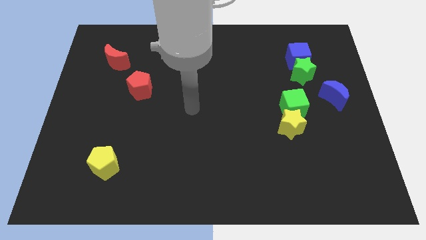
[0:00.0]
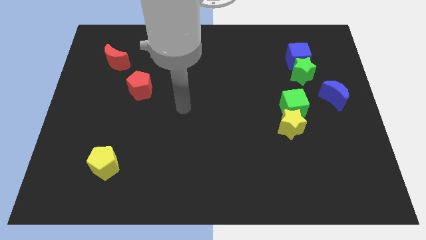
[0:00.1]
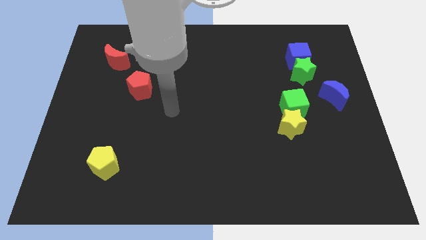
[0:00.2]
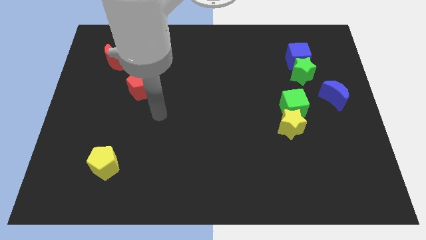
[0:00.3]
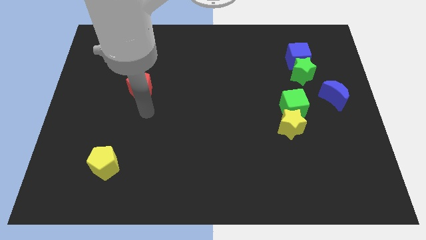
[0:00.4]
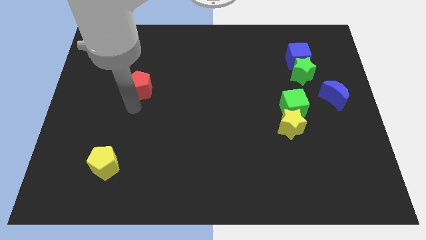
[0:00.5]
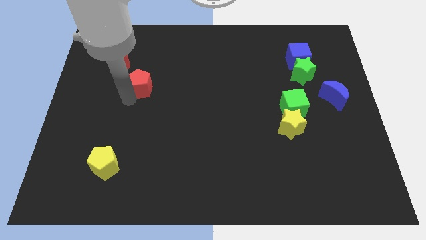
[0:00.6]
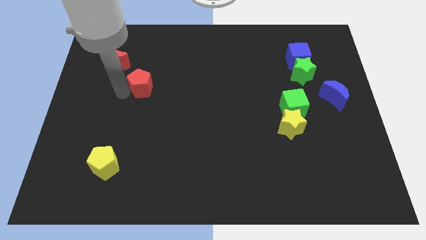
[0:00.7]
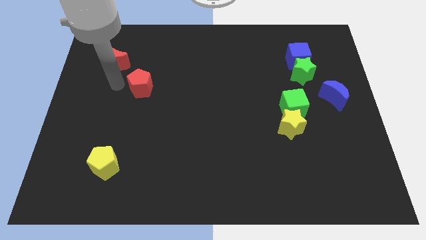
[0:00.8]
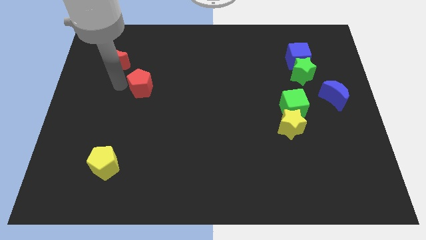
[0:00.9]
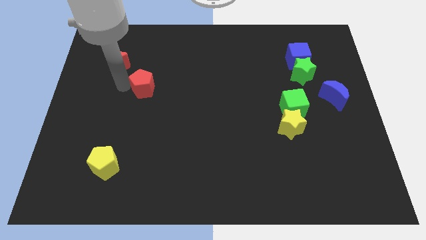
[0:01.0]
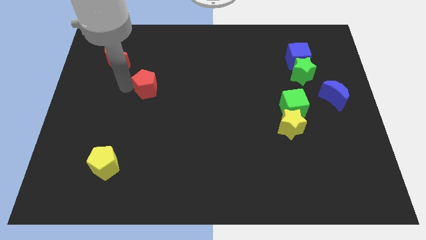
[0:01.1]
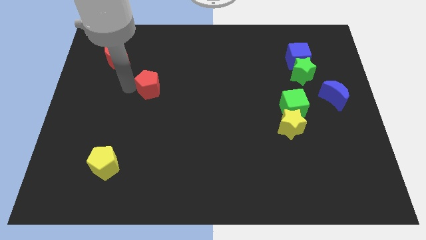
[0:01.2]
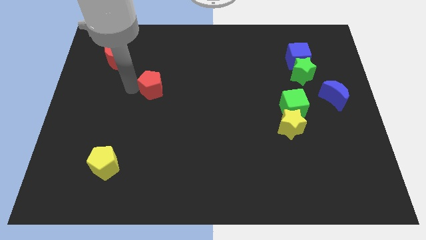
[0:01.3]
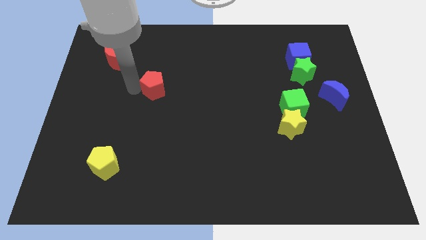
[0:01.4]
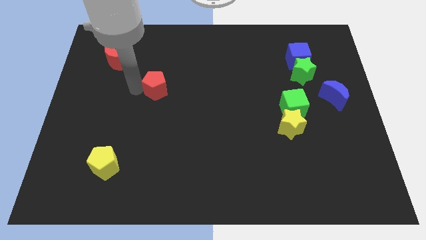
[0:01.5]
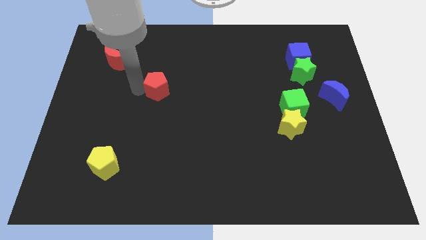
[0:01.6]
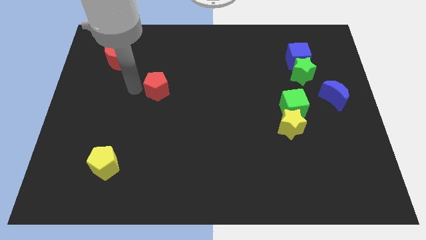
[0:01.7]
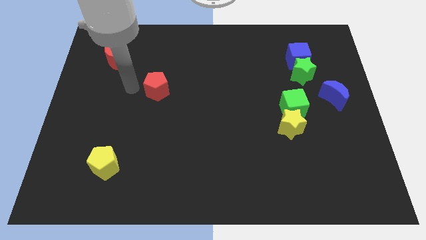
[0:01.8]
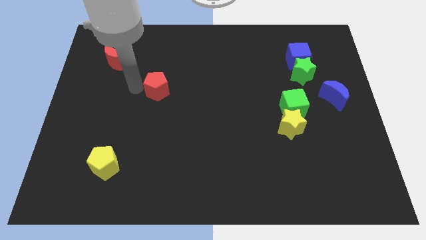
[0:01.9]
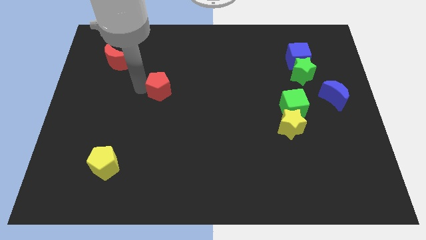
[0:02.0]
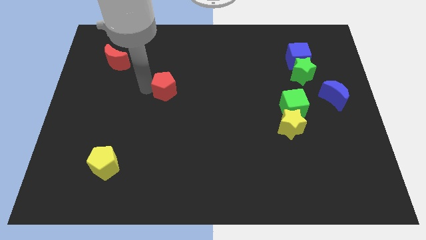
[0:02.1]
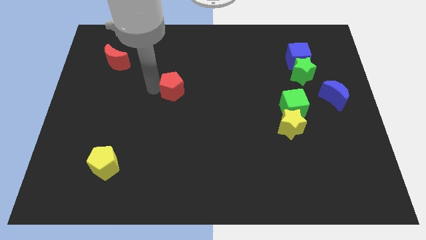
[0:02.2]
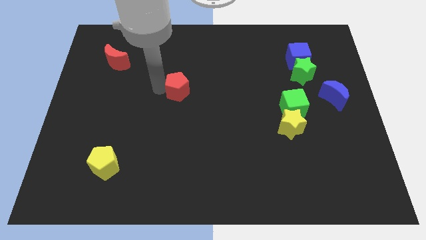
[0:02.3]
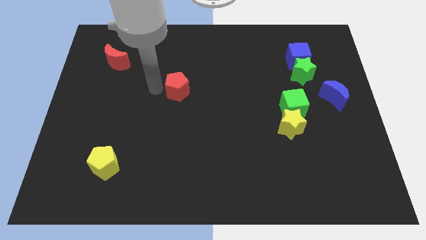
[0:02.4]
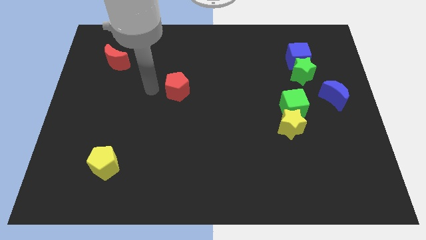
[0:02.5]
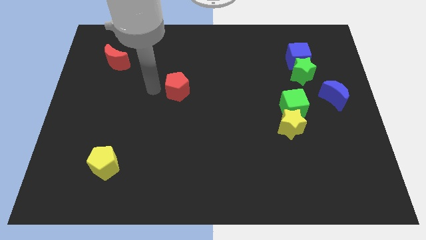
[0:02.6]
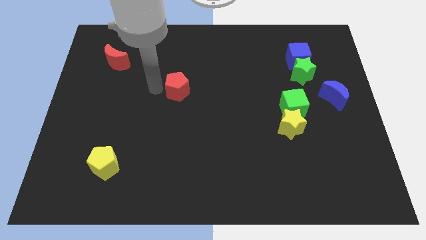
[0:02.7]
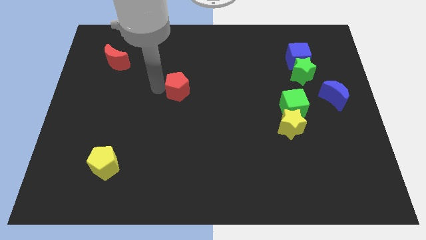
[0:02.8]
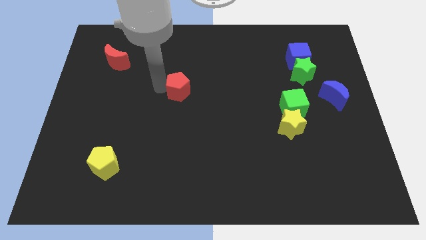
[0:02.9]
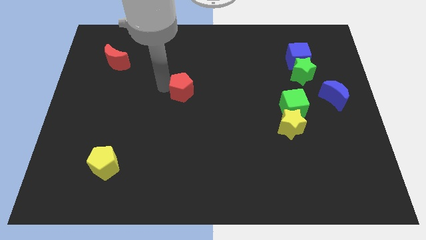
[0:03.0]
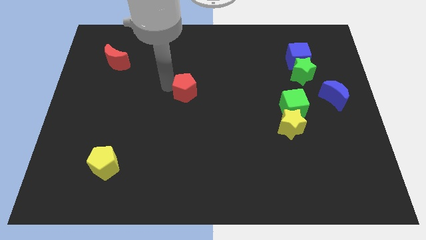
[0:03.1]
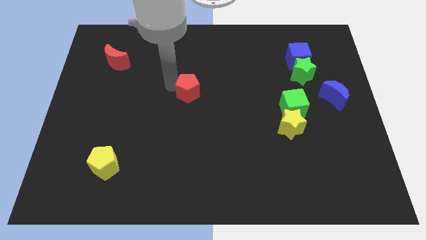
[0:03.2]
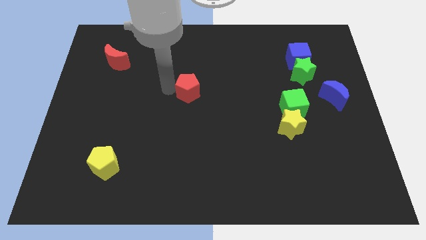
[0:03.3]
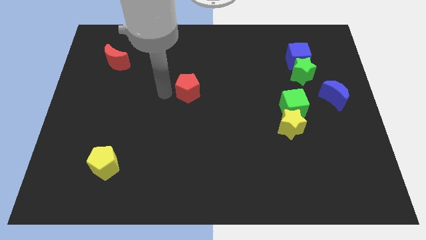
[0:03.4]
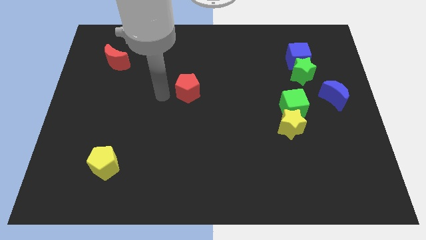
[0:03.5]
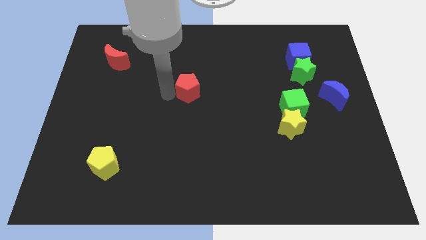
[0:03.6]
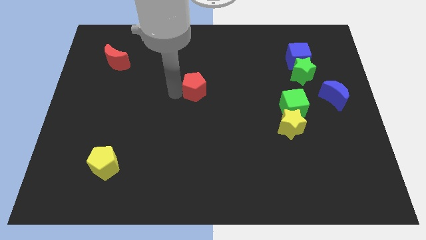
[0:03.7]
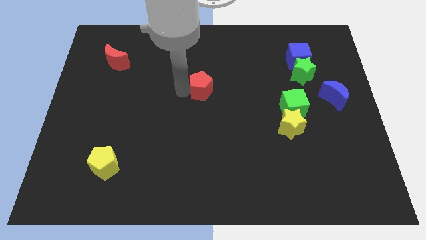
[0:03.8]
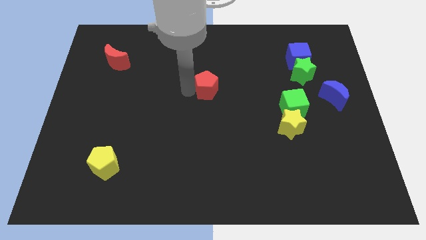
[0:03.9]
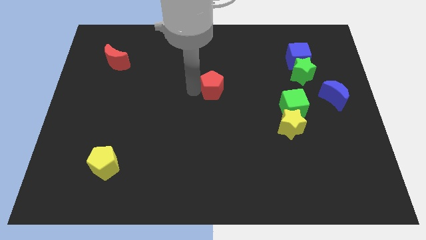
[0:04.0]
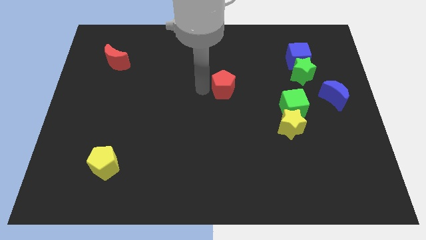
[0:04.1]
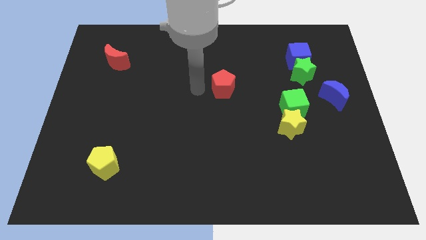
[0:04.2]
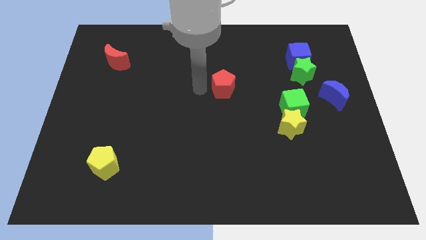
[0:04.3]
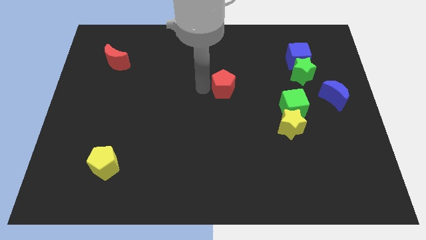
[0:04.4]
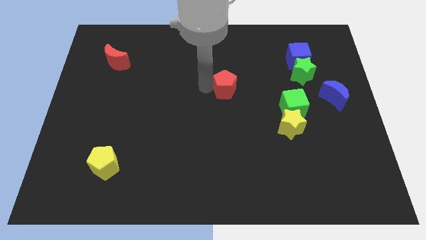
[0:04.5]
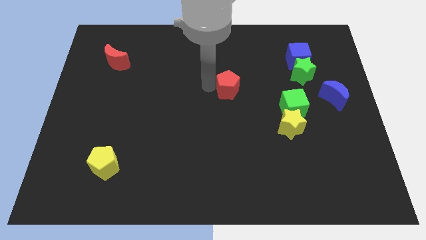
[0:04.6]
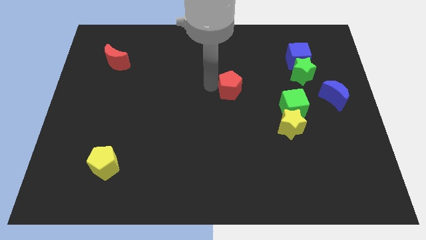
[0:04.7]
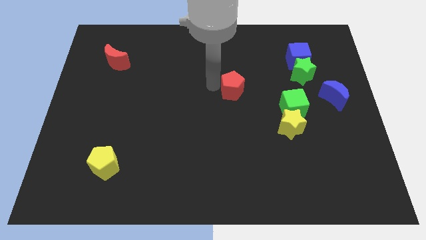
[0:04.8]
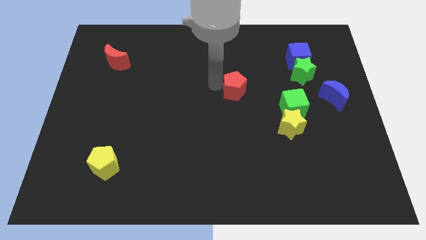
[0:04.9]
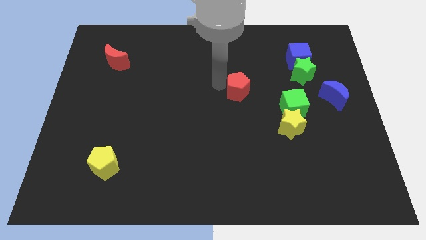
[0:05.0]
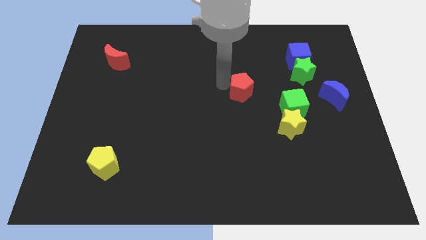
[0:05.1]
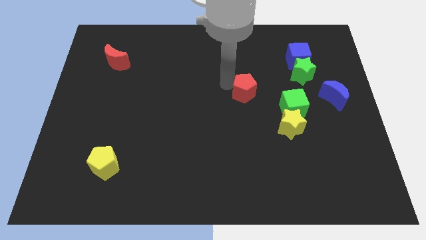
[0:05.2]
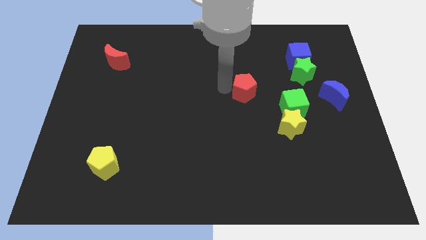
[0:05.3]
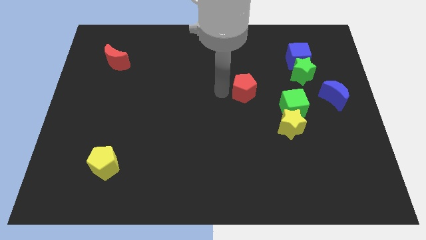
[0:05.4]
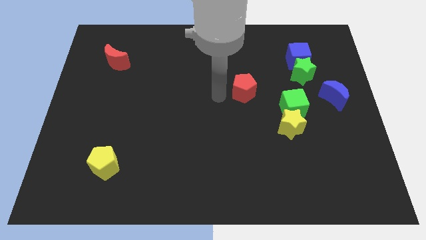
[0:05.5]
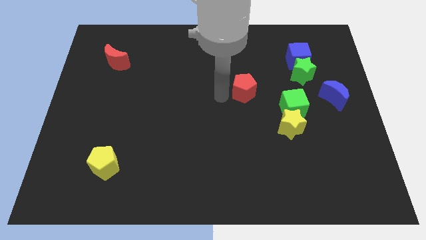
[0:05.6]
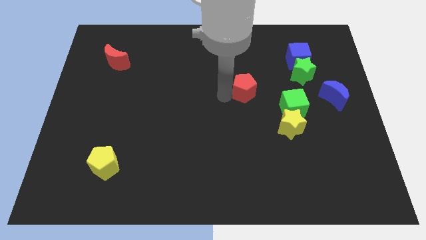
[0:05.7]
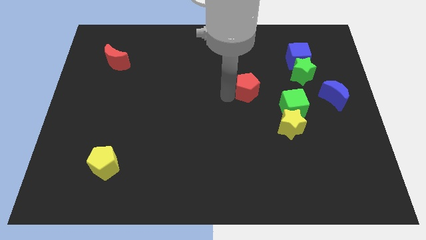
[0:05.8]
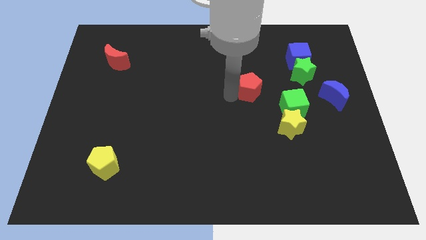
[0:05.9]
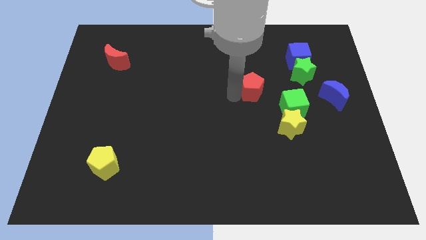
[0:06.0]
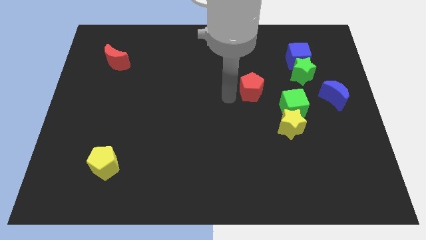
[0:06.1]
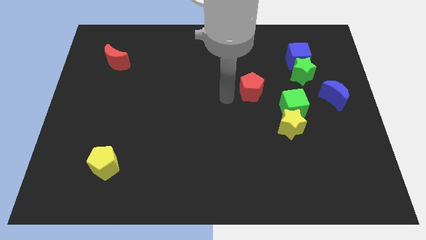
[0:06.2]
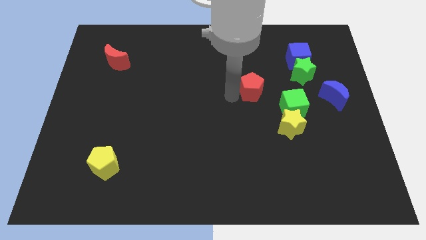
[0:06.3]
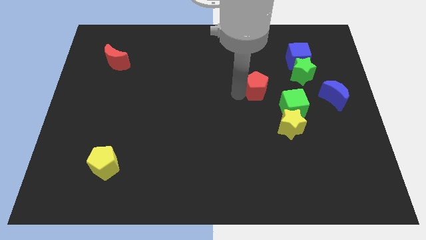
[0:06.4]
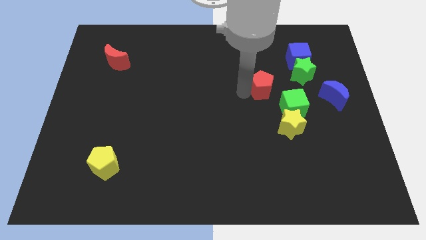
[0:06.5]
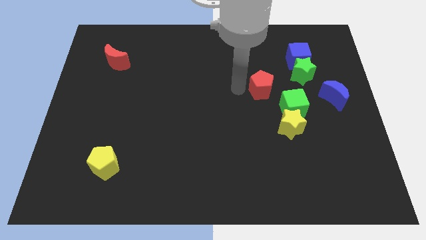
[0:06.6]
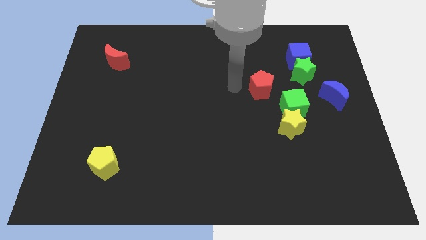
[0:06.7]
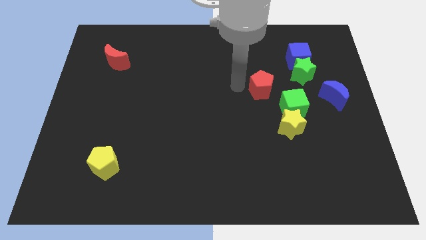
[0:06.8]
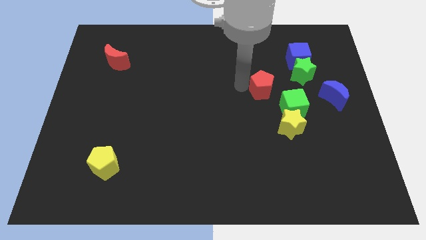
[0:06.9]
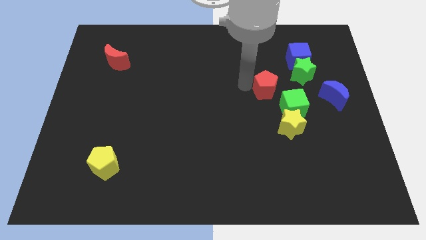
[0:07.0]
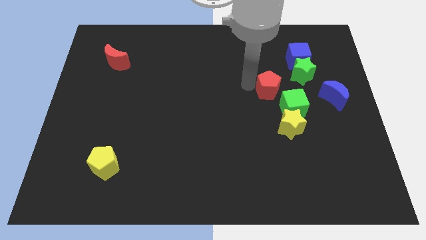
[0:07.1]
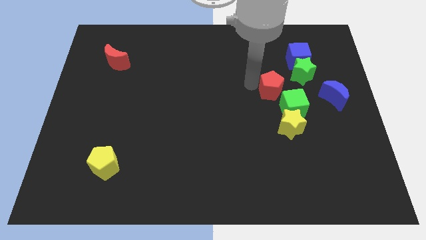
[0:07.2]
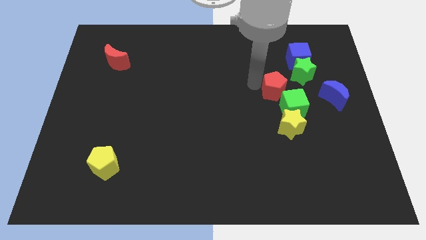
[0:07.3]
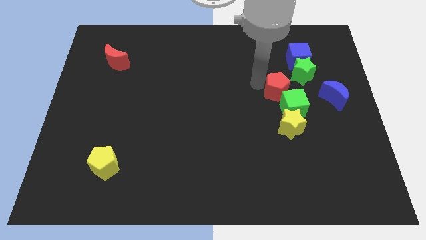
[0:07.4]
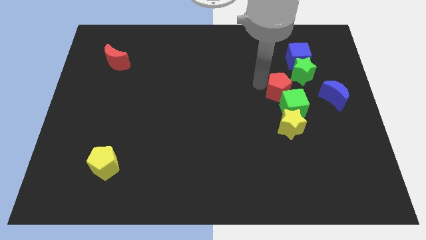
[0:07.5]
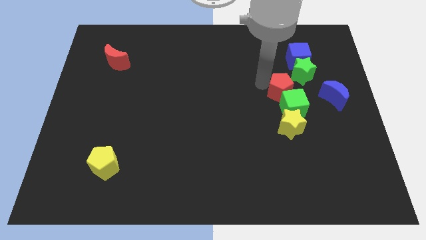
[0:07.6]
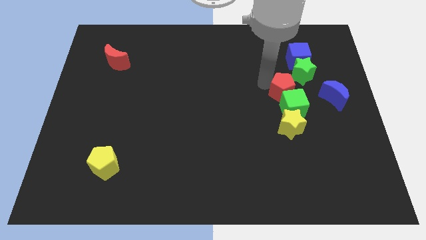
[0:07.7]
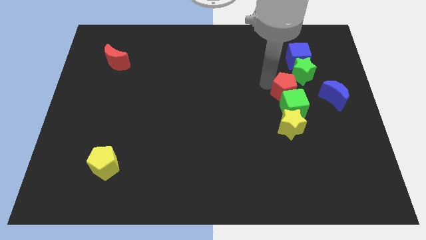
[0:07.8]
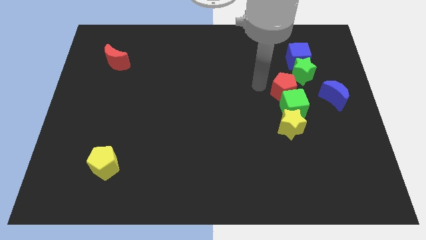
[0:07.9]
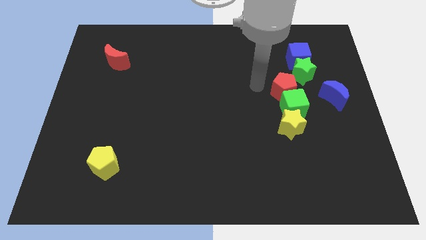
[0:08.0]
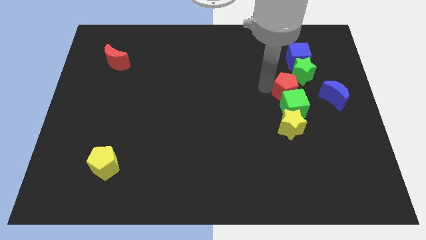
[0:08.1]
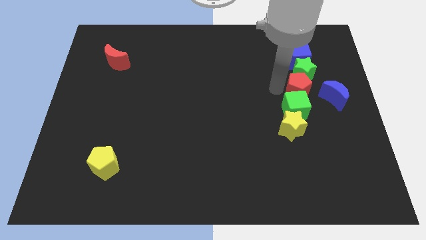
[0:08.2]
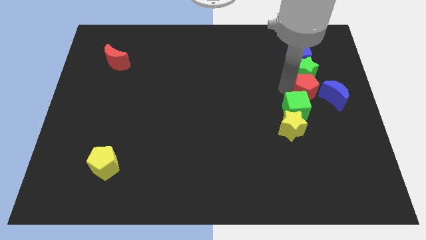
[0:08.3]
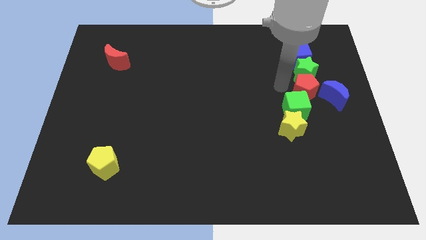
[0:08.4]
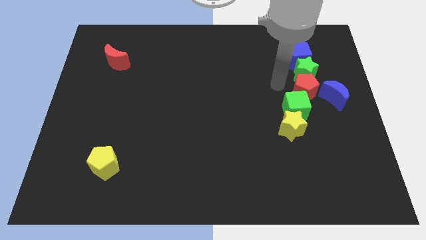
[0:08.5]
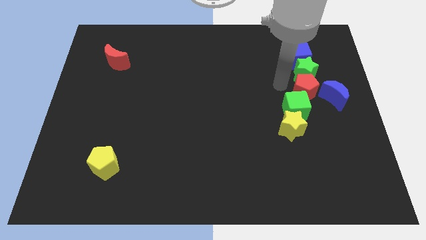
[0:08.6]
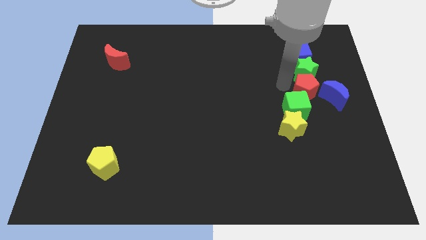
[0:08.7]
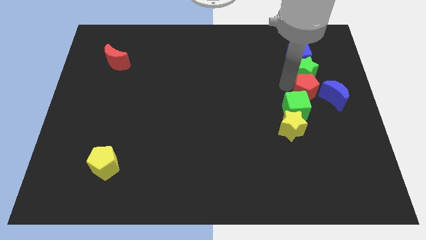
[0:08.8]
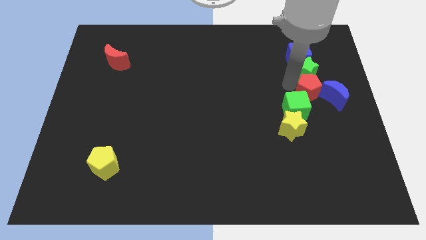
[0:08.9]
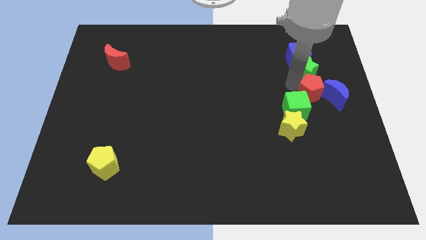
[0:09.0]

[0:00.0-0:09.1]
push the red pentagon close to the blue moon
